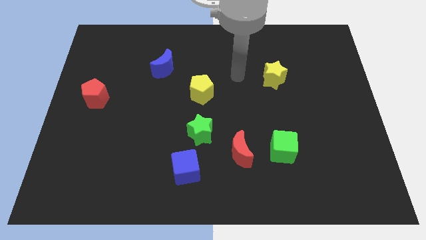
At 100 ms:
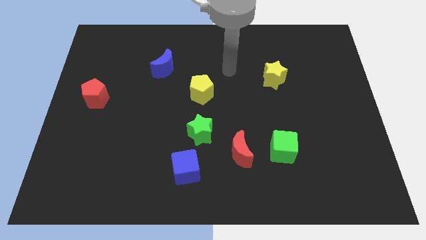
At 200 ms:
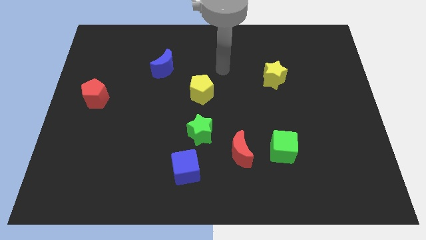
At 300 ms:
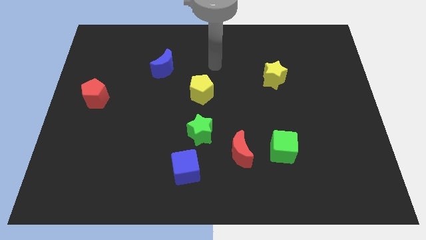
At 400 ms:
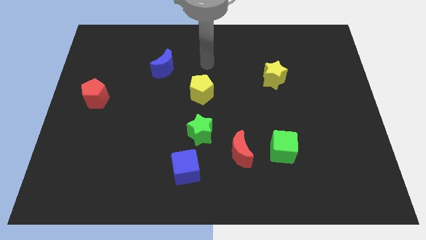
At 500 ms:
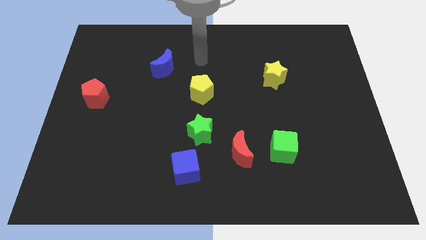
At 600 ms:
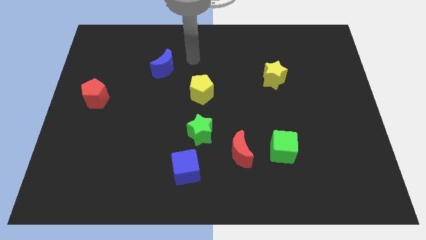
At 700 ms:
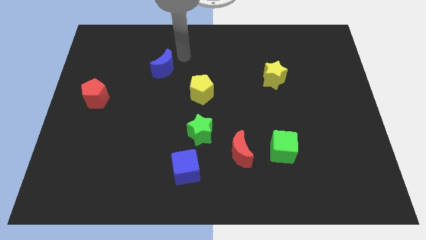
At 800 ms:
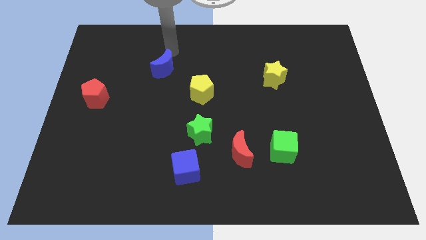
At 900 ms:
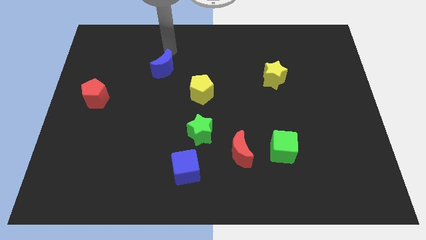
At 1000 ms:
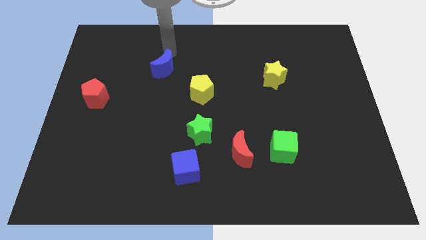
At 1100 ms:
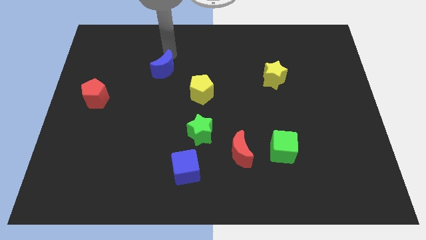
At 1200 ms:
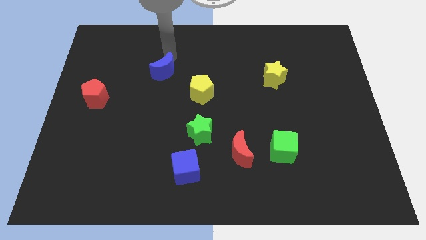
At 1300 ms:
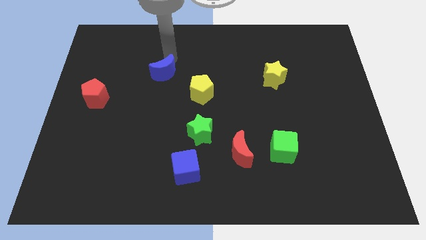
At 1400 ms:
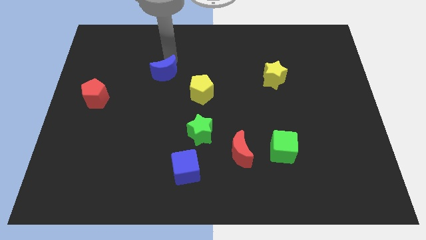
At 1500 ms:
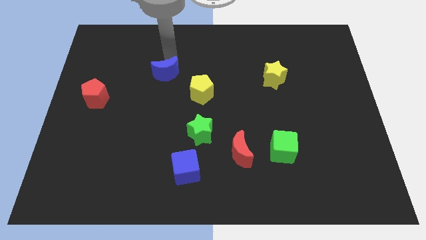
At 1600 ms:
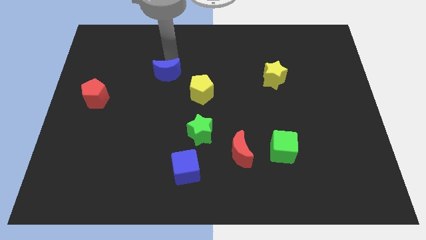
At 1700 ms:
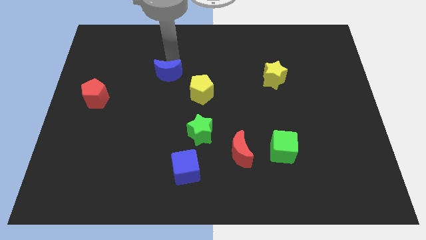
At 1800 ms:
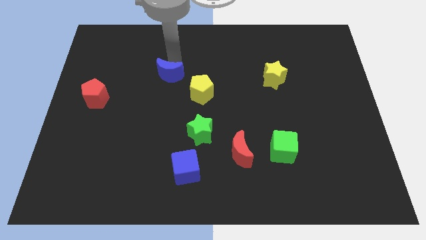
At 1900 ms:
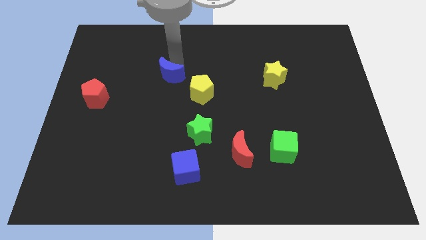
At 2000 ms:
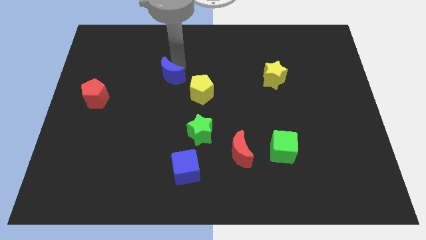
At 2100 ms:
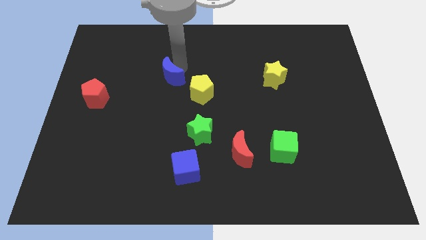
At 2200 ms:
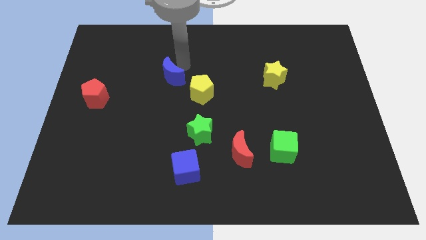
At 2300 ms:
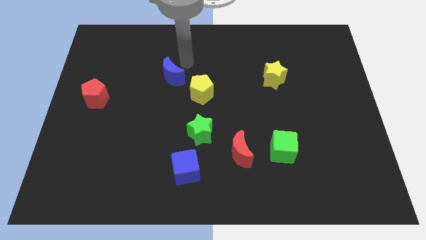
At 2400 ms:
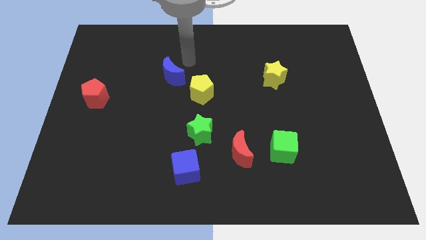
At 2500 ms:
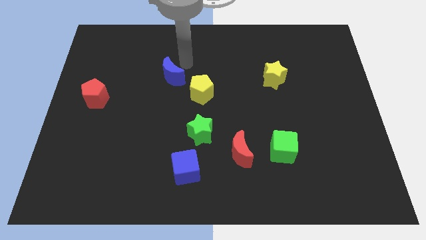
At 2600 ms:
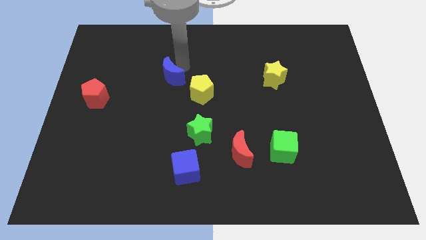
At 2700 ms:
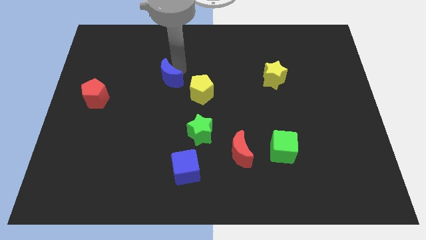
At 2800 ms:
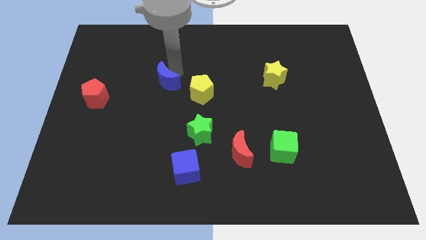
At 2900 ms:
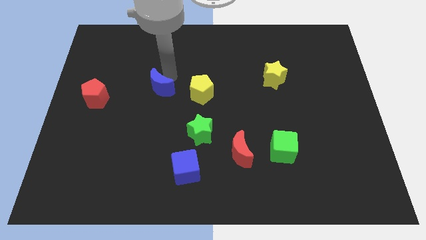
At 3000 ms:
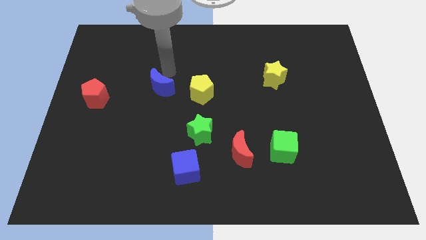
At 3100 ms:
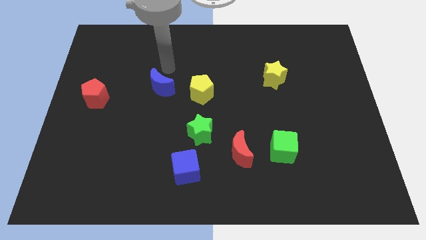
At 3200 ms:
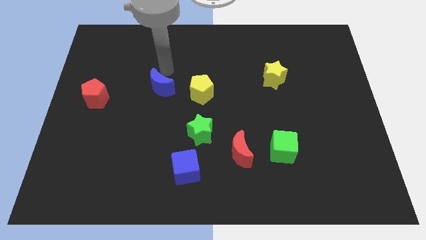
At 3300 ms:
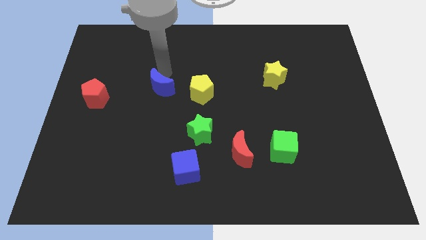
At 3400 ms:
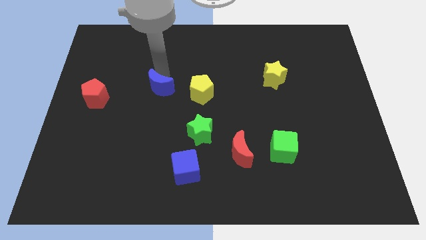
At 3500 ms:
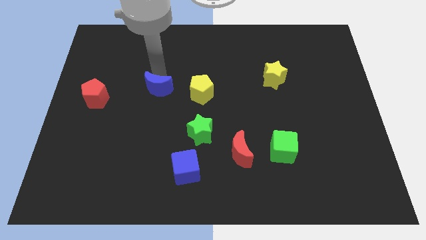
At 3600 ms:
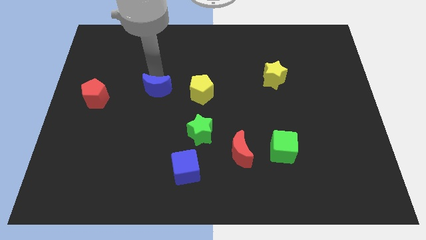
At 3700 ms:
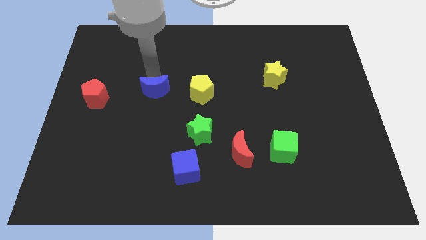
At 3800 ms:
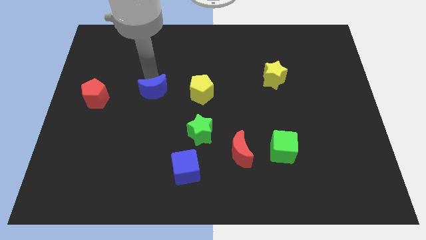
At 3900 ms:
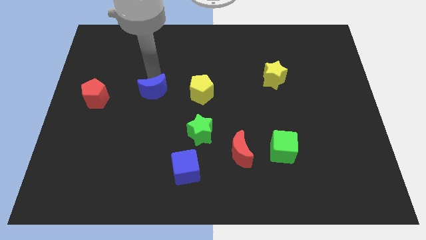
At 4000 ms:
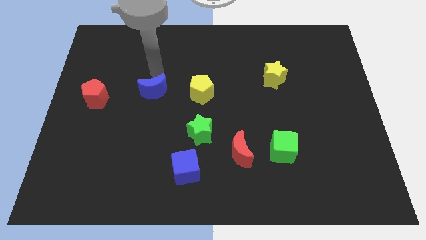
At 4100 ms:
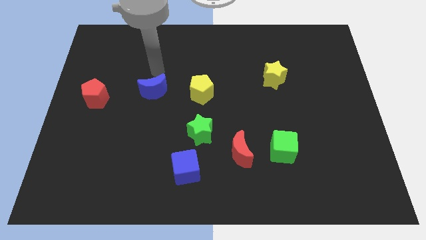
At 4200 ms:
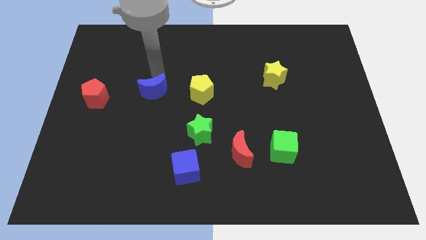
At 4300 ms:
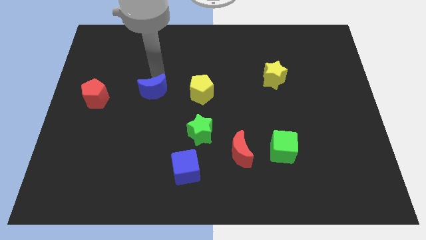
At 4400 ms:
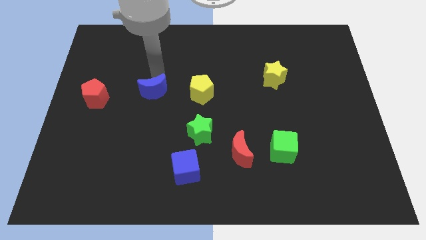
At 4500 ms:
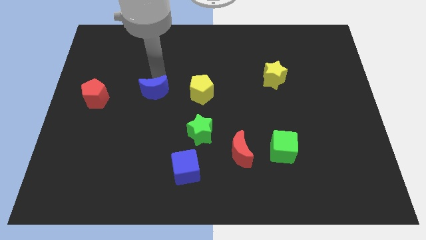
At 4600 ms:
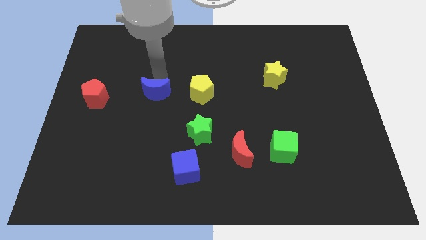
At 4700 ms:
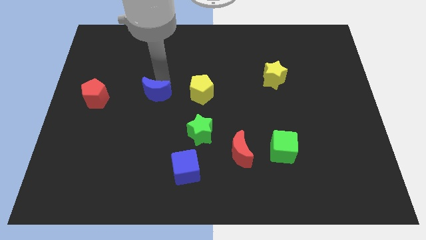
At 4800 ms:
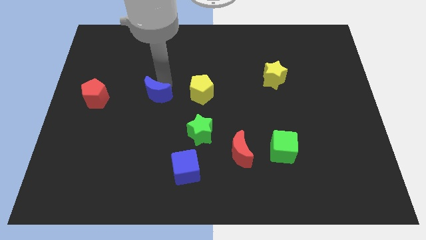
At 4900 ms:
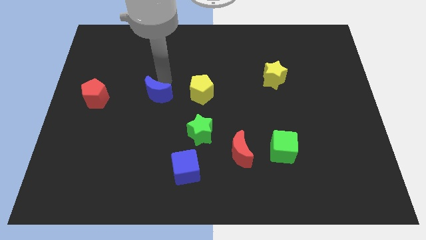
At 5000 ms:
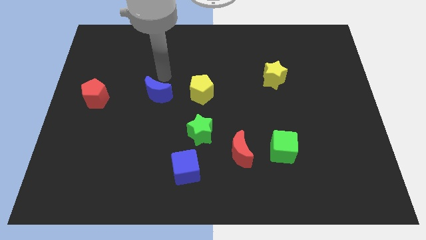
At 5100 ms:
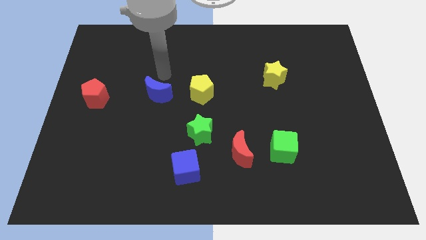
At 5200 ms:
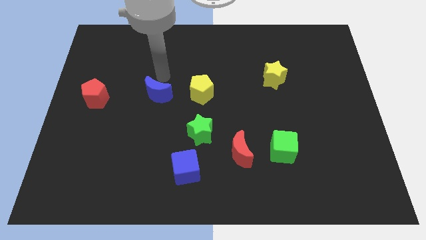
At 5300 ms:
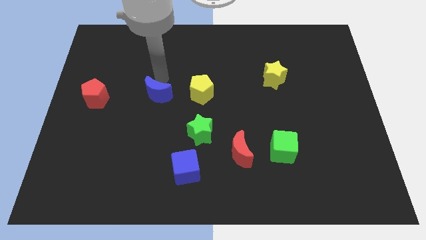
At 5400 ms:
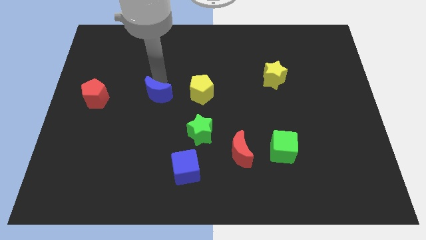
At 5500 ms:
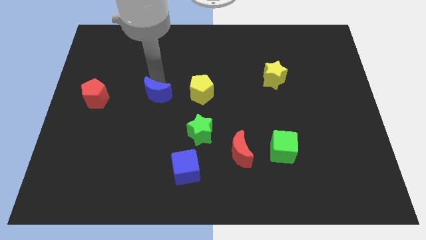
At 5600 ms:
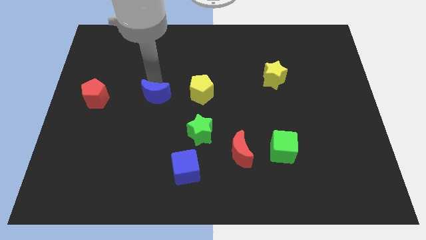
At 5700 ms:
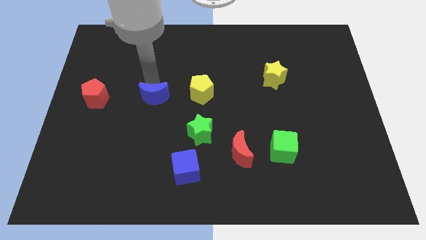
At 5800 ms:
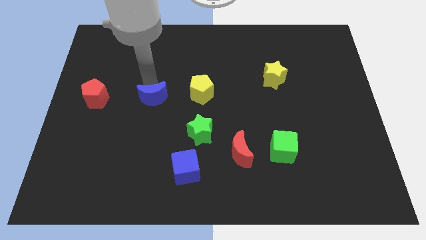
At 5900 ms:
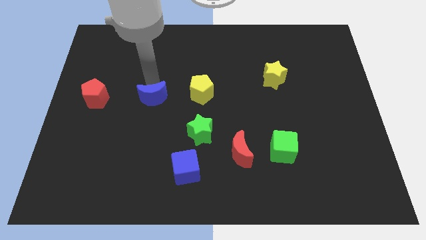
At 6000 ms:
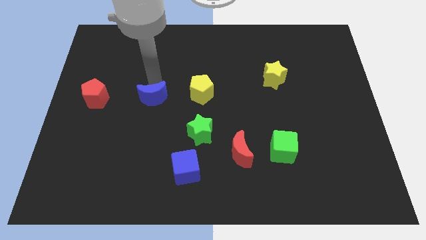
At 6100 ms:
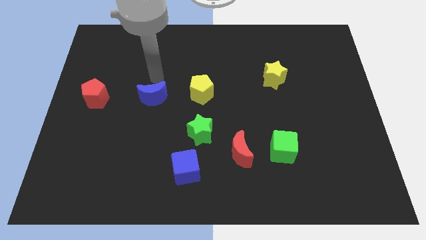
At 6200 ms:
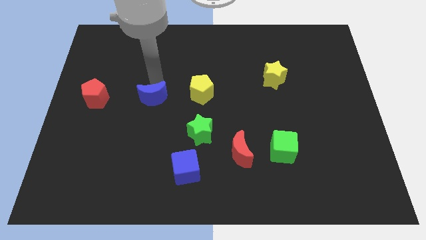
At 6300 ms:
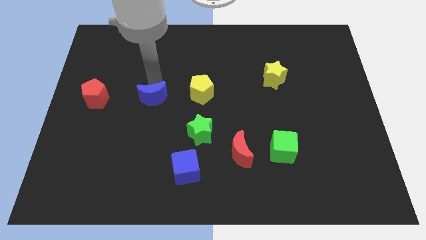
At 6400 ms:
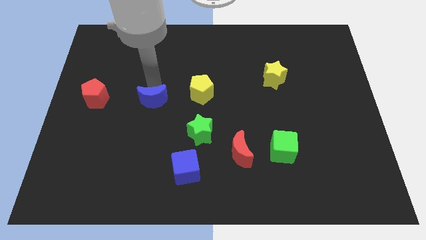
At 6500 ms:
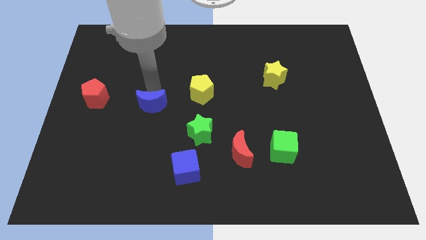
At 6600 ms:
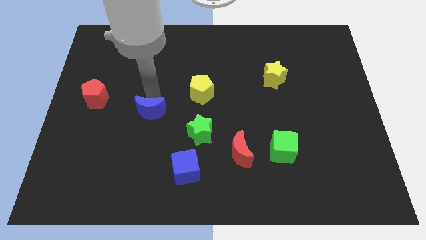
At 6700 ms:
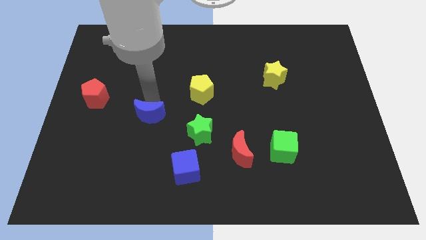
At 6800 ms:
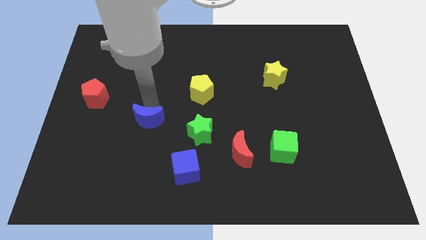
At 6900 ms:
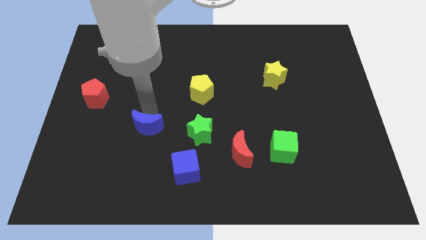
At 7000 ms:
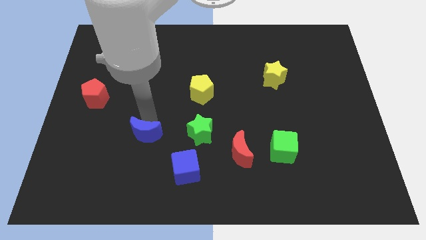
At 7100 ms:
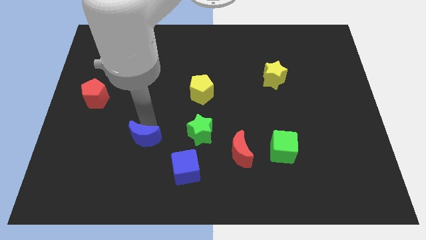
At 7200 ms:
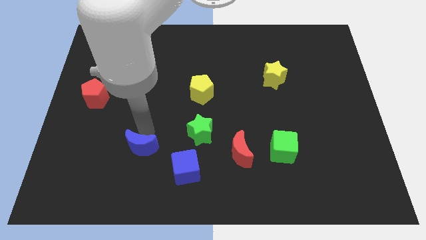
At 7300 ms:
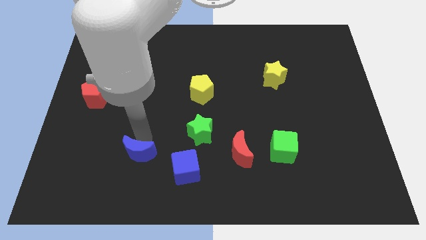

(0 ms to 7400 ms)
put the blue moon to the left side of the blue cube

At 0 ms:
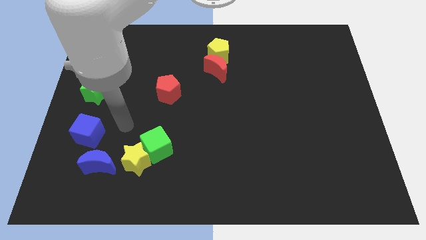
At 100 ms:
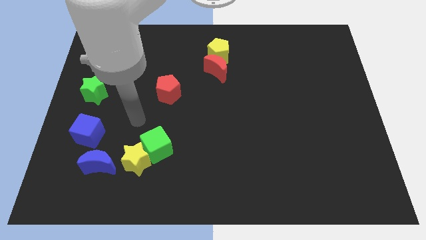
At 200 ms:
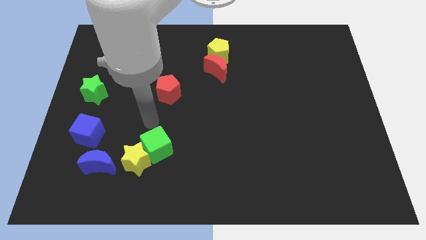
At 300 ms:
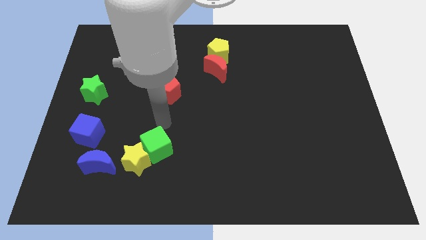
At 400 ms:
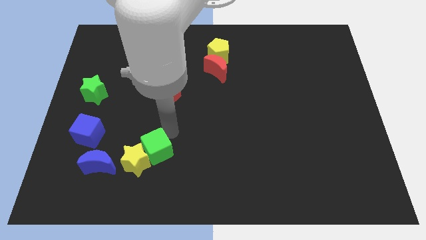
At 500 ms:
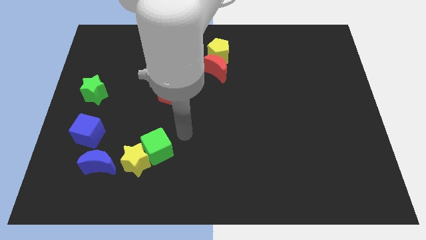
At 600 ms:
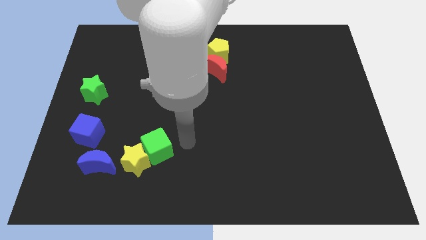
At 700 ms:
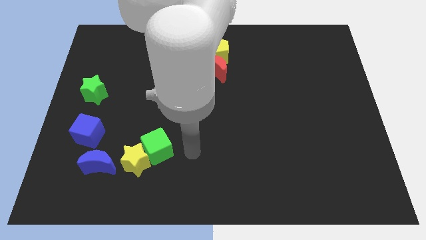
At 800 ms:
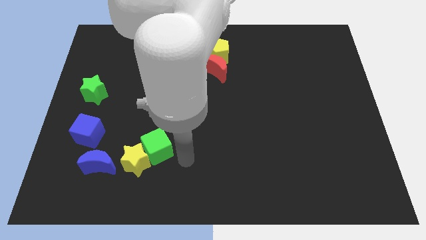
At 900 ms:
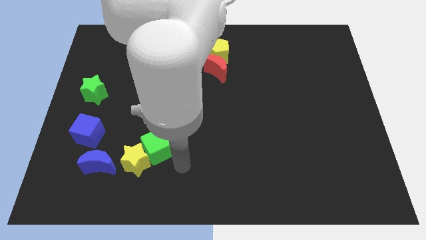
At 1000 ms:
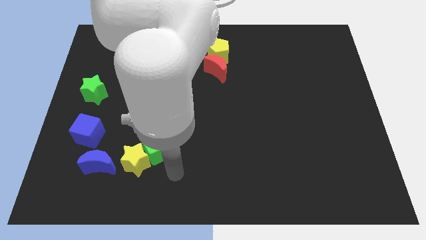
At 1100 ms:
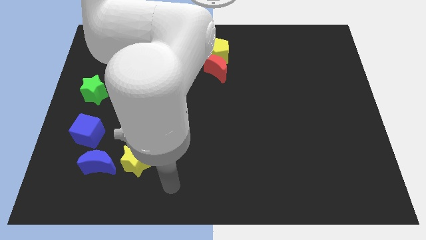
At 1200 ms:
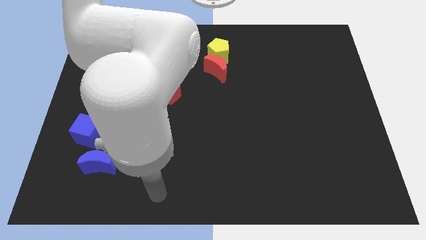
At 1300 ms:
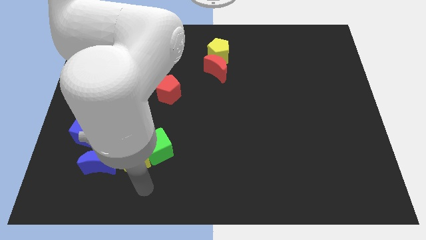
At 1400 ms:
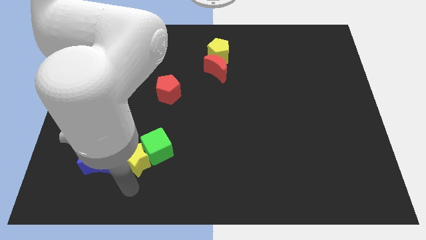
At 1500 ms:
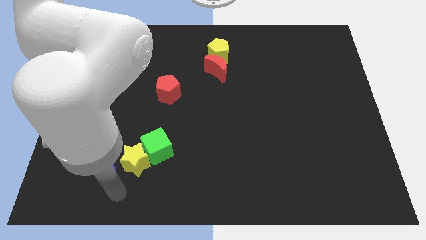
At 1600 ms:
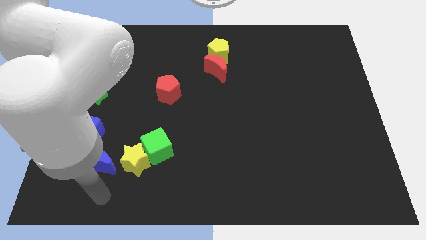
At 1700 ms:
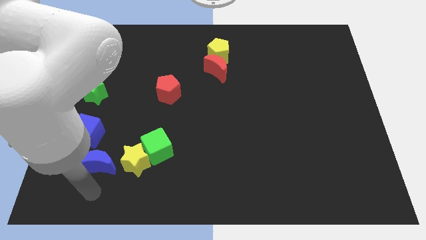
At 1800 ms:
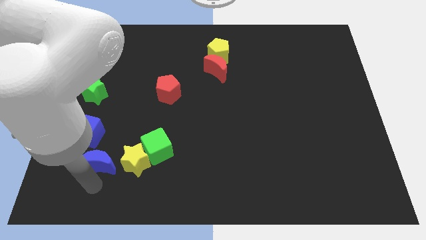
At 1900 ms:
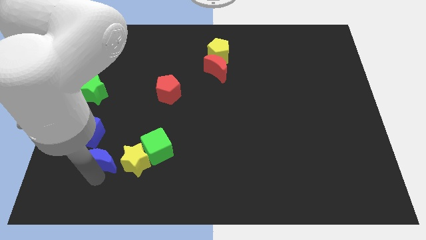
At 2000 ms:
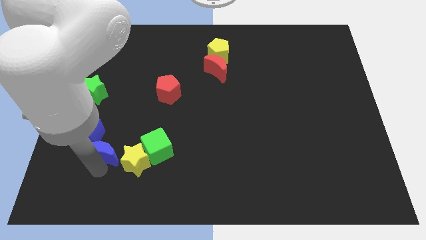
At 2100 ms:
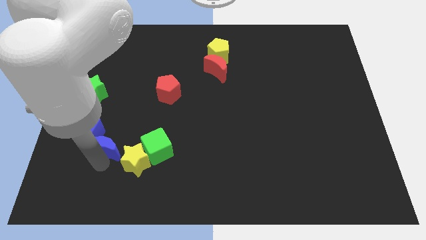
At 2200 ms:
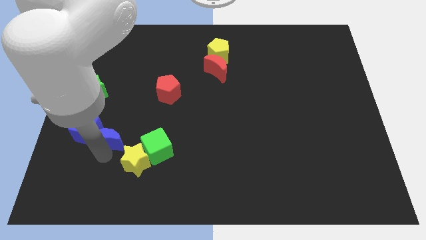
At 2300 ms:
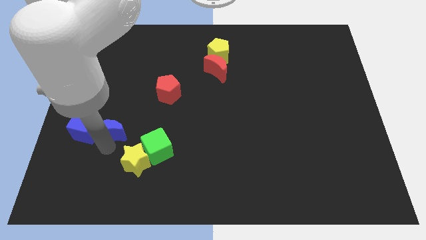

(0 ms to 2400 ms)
push the blue moon to the top right side of the blue cube
